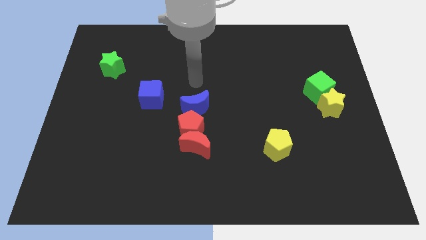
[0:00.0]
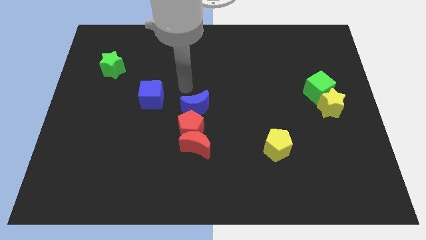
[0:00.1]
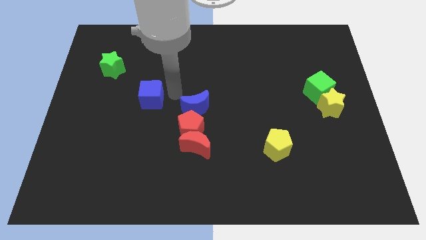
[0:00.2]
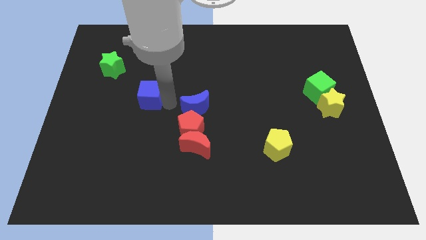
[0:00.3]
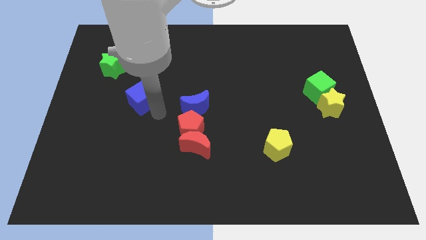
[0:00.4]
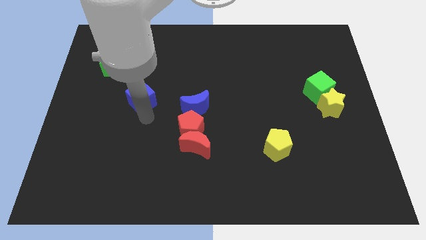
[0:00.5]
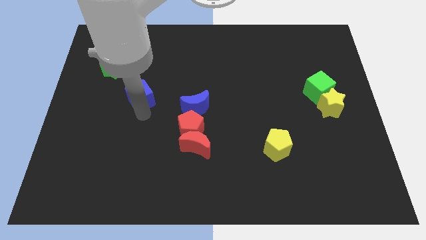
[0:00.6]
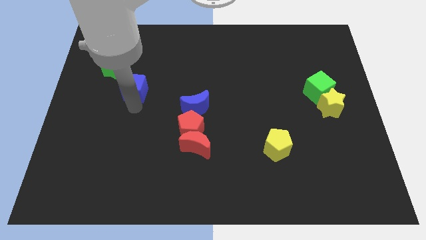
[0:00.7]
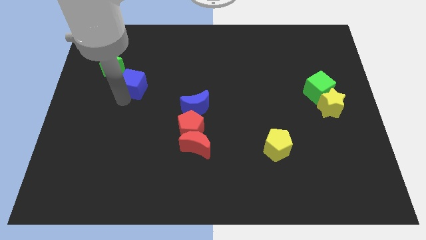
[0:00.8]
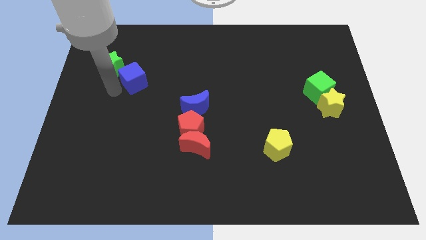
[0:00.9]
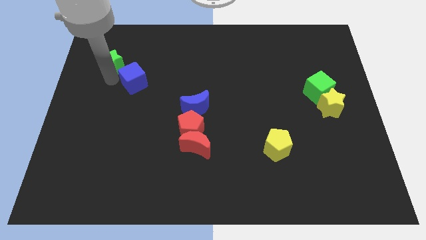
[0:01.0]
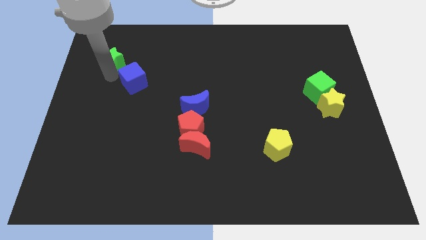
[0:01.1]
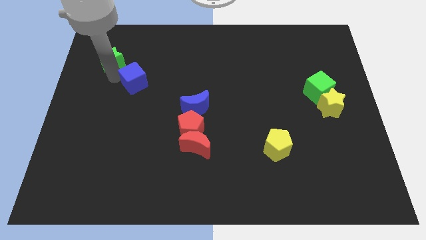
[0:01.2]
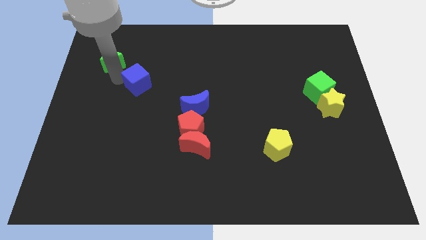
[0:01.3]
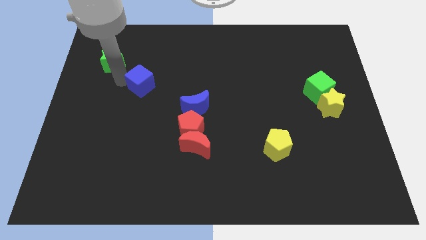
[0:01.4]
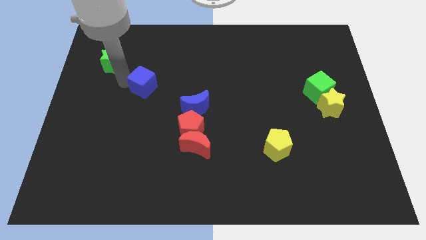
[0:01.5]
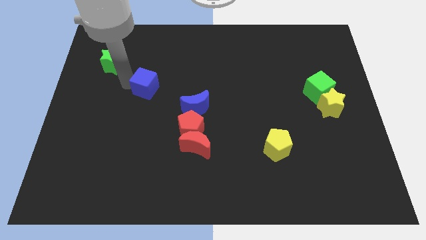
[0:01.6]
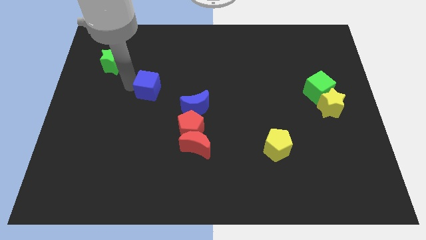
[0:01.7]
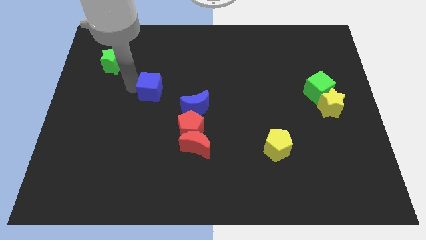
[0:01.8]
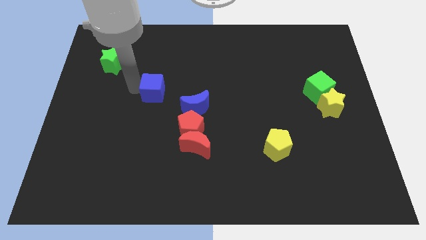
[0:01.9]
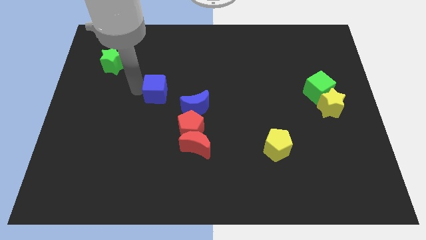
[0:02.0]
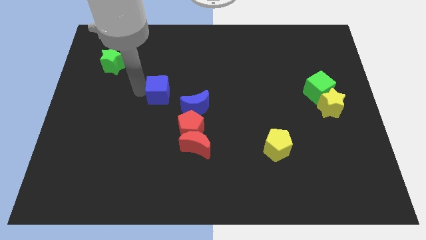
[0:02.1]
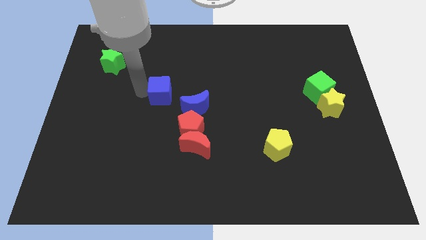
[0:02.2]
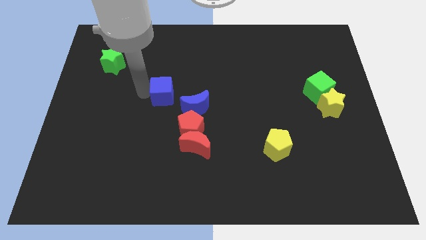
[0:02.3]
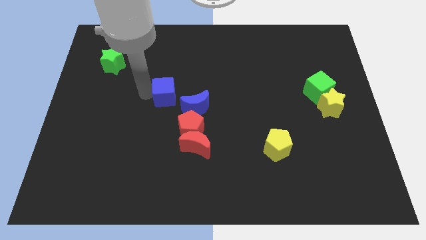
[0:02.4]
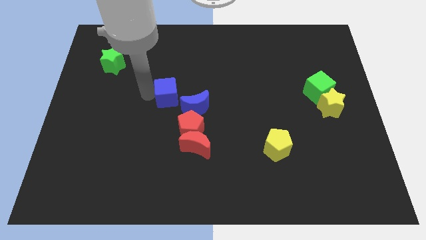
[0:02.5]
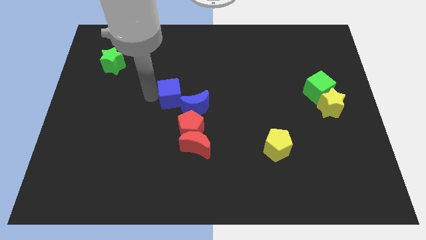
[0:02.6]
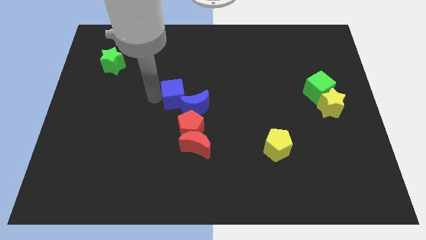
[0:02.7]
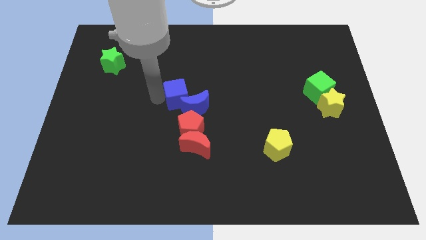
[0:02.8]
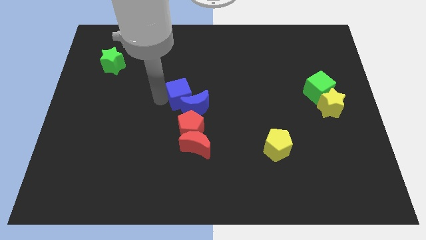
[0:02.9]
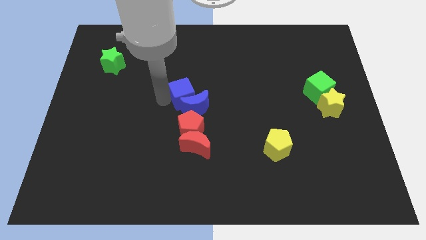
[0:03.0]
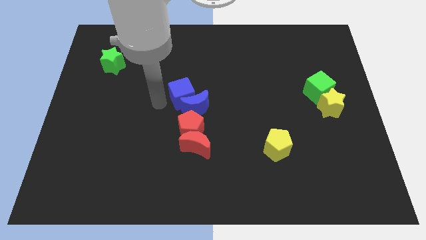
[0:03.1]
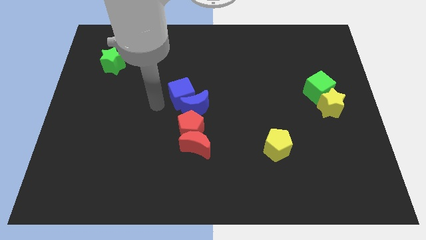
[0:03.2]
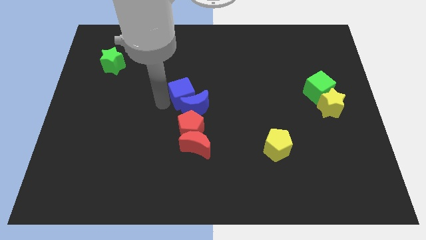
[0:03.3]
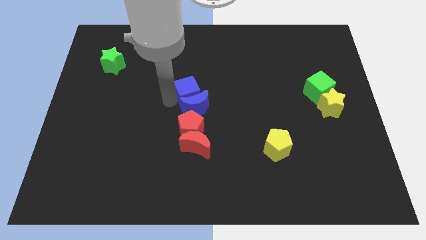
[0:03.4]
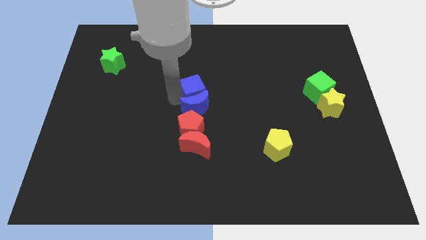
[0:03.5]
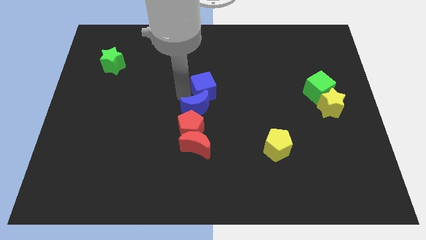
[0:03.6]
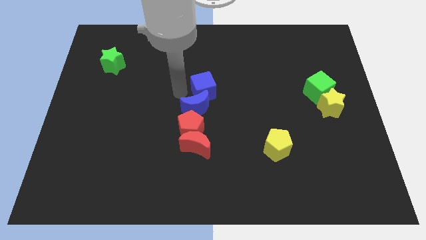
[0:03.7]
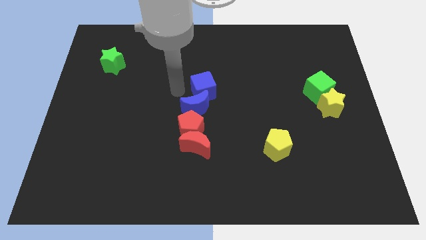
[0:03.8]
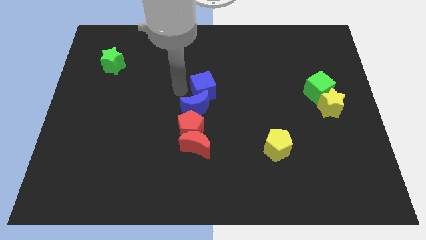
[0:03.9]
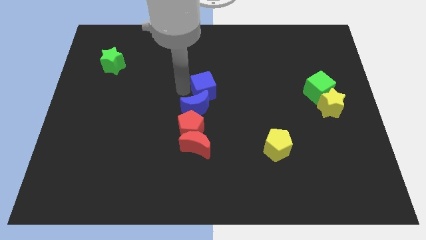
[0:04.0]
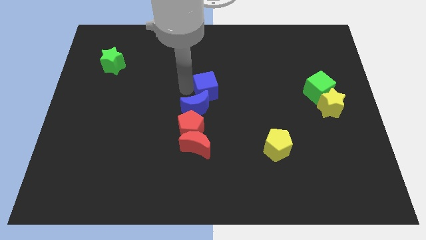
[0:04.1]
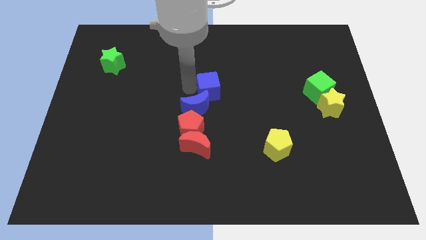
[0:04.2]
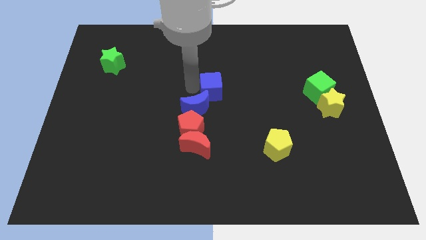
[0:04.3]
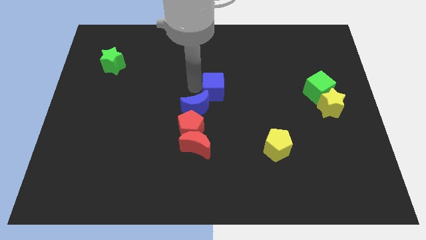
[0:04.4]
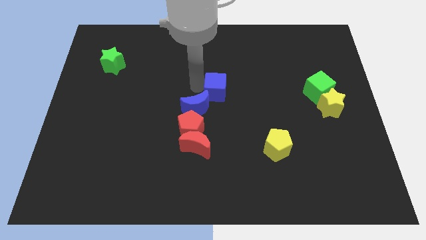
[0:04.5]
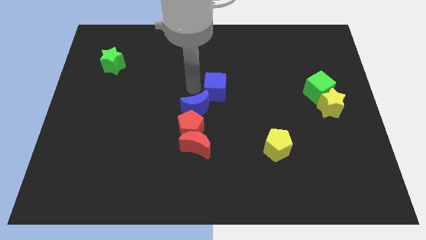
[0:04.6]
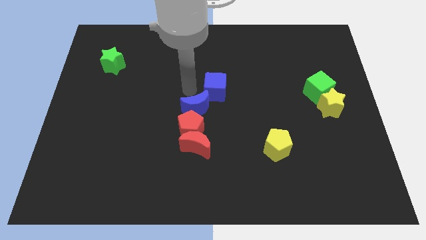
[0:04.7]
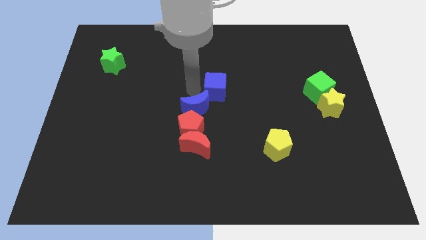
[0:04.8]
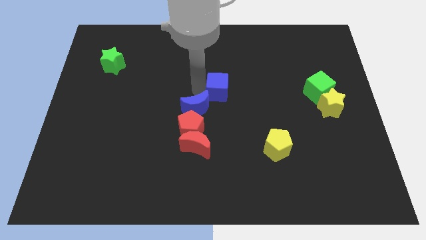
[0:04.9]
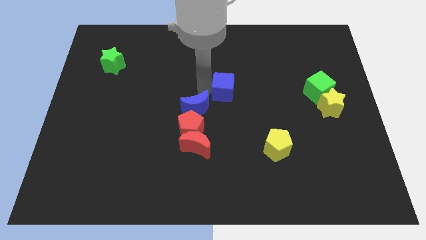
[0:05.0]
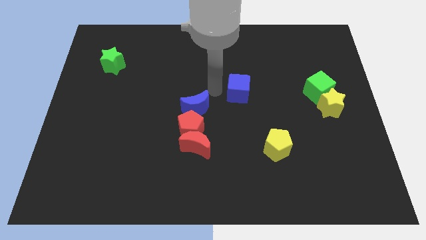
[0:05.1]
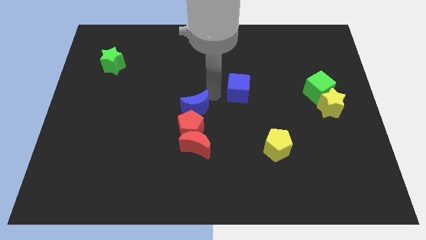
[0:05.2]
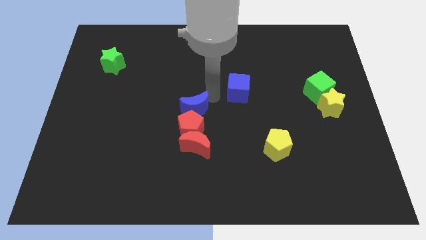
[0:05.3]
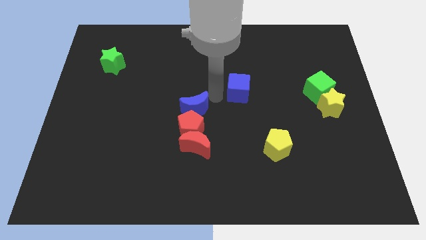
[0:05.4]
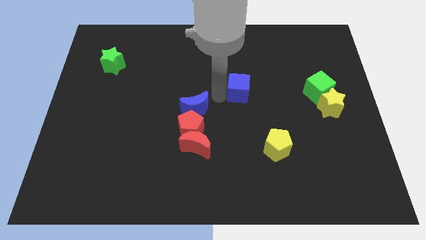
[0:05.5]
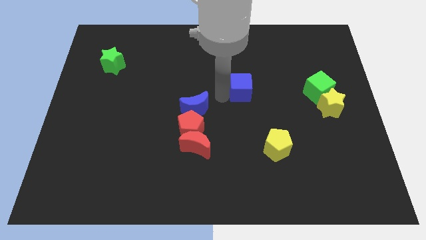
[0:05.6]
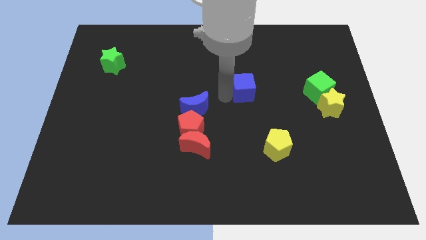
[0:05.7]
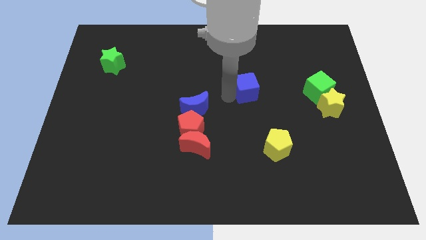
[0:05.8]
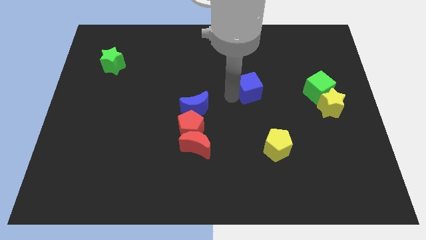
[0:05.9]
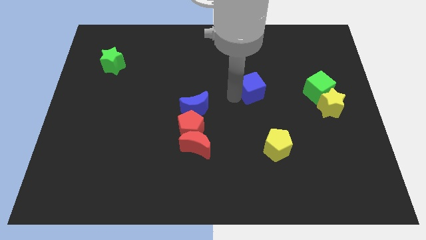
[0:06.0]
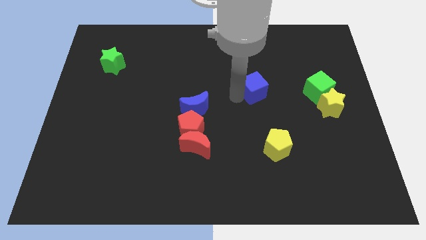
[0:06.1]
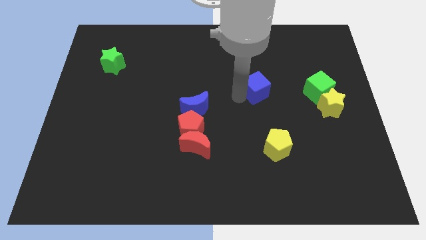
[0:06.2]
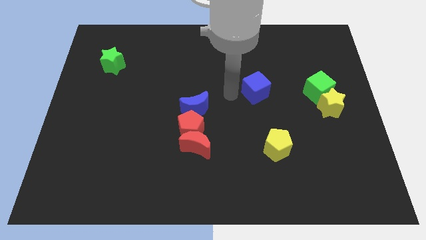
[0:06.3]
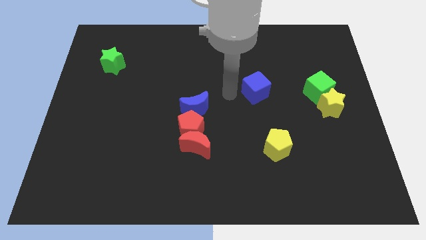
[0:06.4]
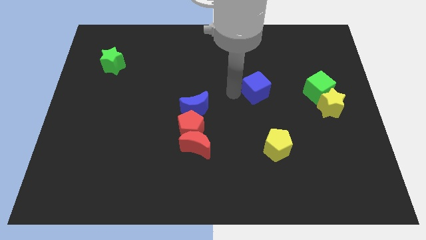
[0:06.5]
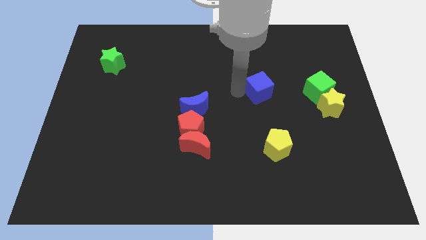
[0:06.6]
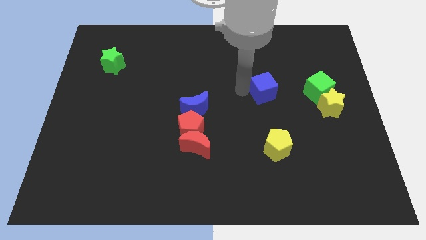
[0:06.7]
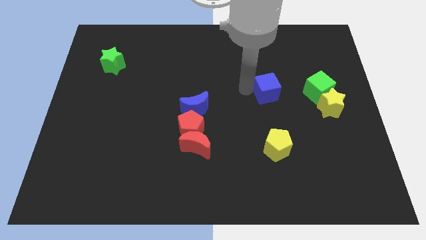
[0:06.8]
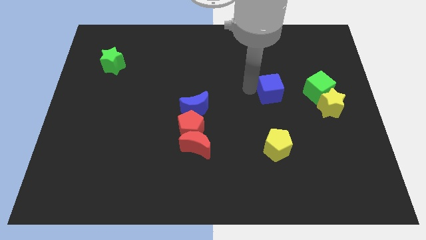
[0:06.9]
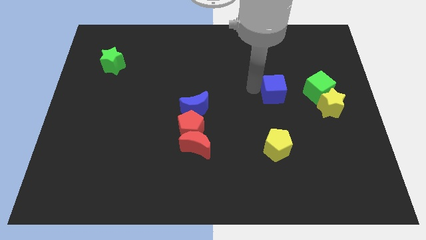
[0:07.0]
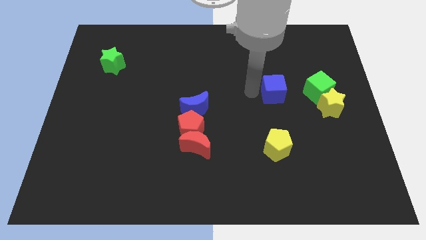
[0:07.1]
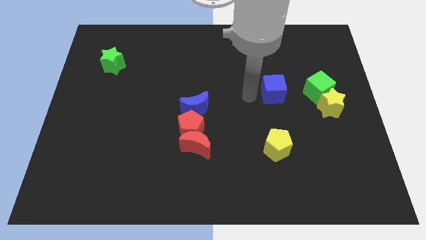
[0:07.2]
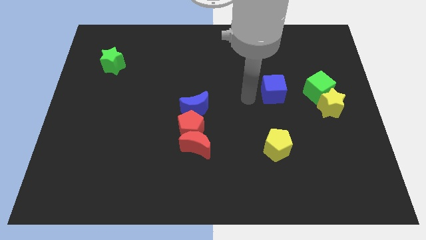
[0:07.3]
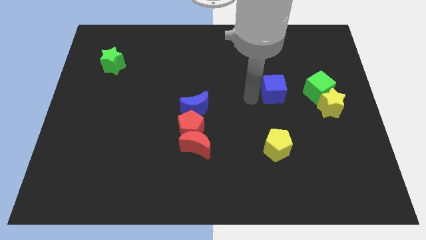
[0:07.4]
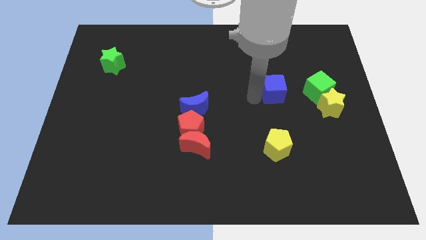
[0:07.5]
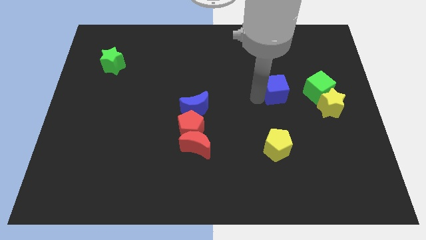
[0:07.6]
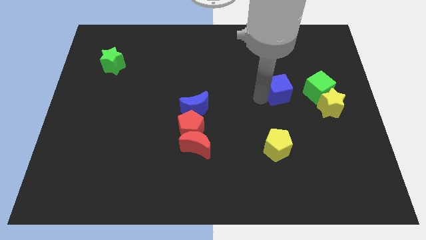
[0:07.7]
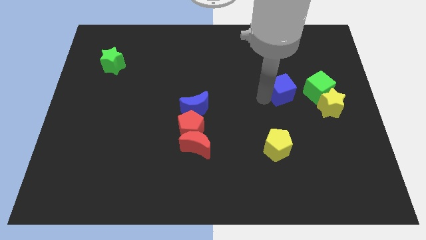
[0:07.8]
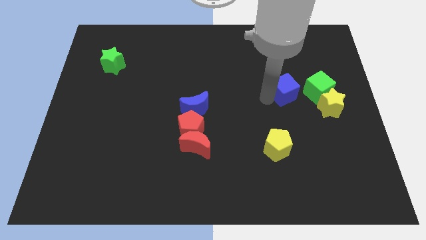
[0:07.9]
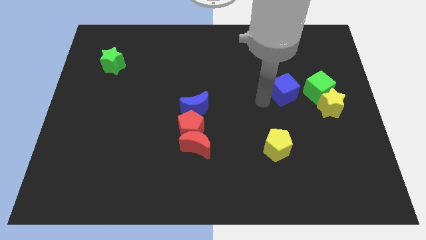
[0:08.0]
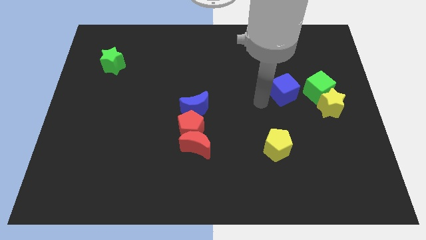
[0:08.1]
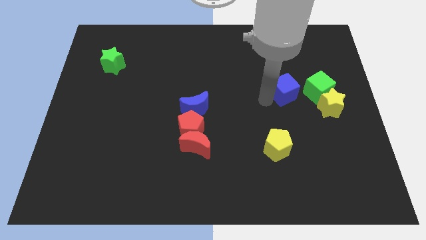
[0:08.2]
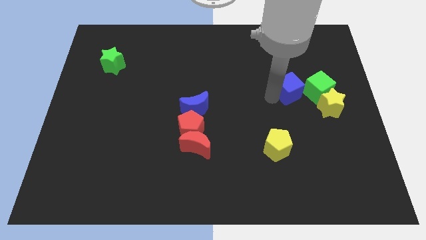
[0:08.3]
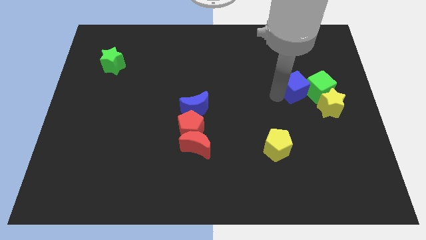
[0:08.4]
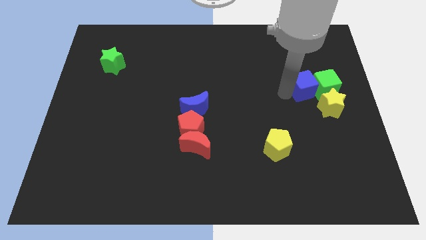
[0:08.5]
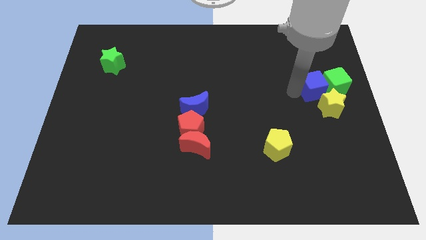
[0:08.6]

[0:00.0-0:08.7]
slide the blue cube to the top of the yellow star
